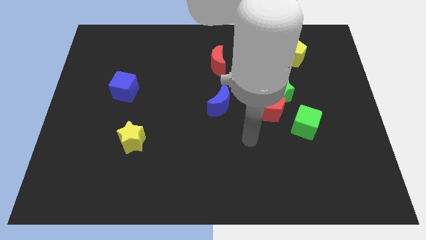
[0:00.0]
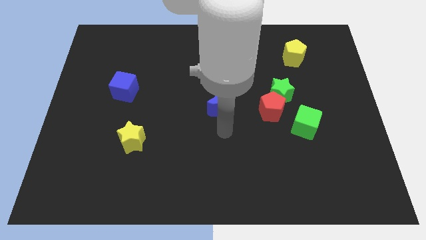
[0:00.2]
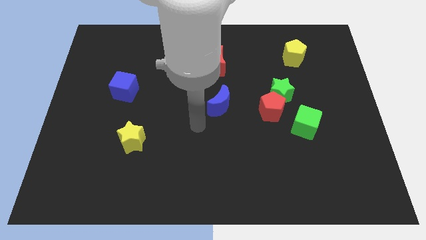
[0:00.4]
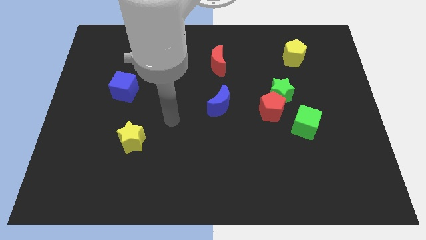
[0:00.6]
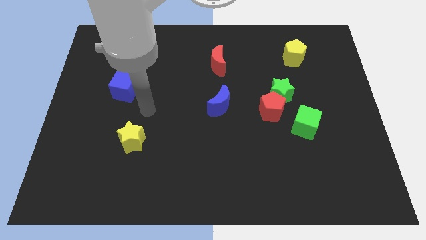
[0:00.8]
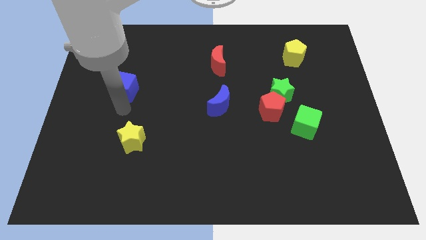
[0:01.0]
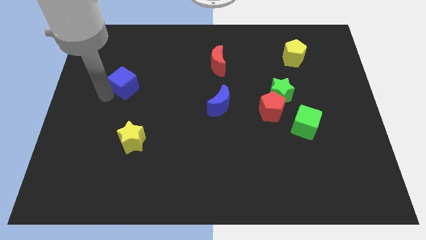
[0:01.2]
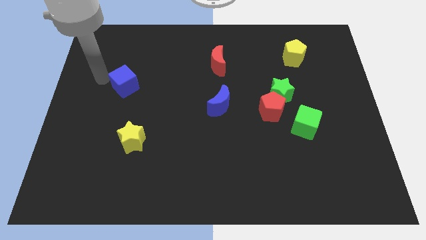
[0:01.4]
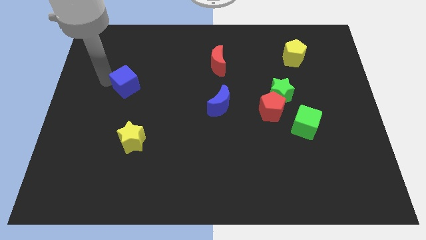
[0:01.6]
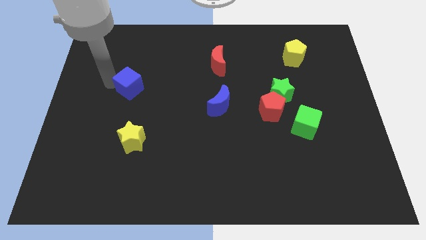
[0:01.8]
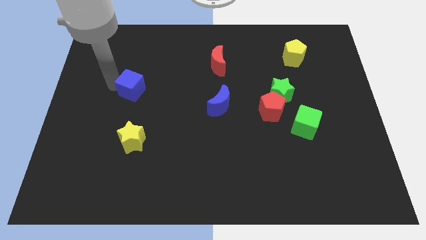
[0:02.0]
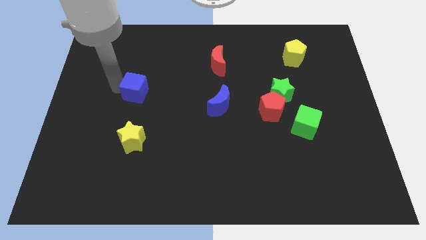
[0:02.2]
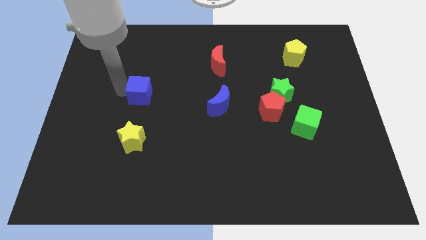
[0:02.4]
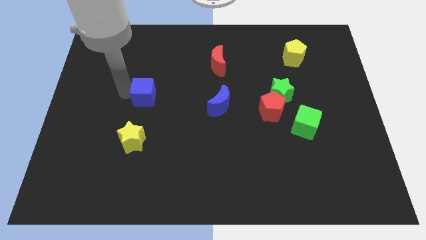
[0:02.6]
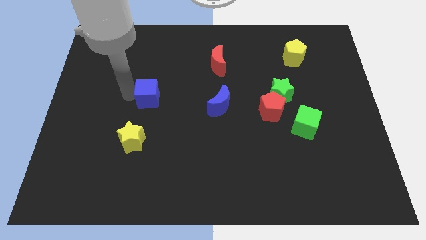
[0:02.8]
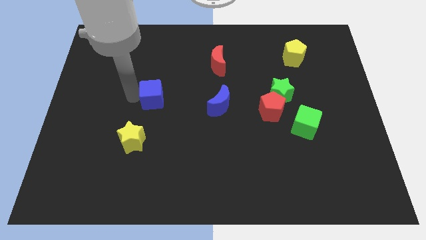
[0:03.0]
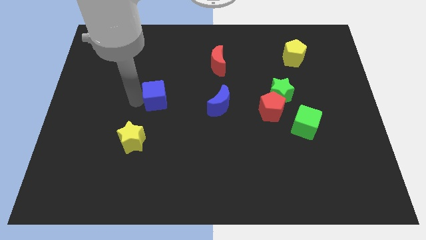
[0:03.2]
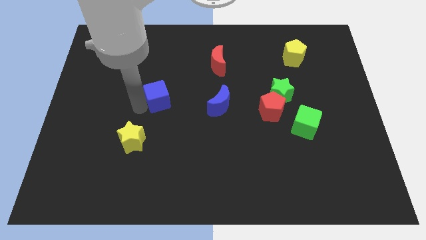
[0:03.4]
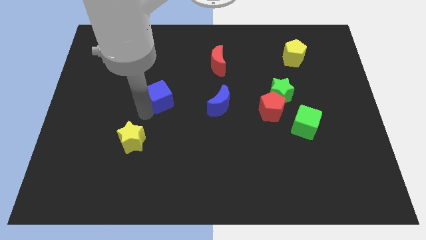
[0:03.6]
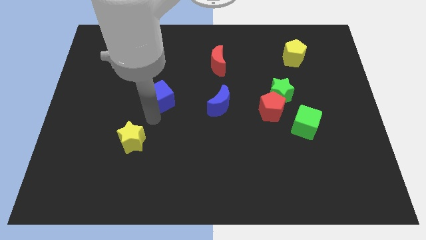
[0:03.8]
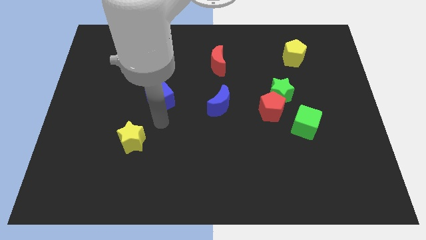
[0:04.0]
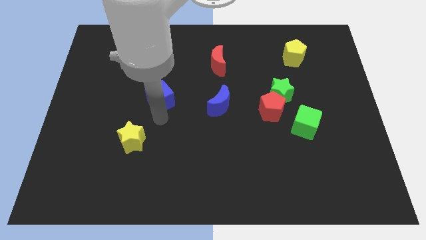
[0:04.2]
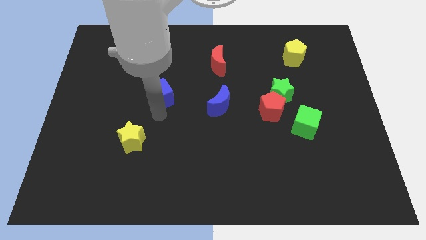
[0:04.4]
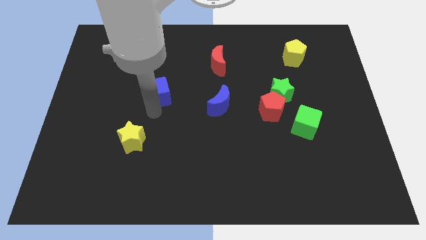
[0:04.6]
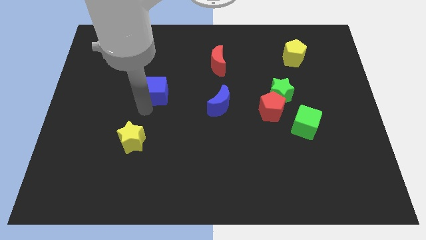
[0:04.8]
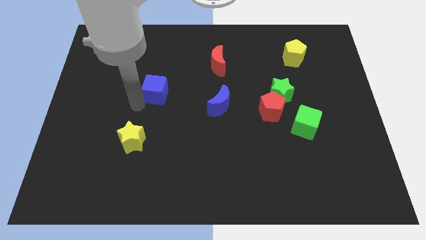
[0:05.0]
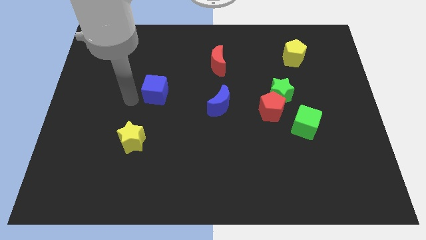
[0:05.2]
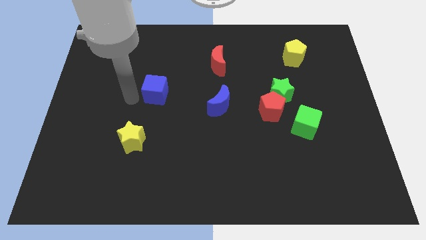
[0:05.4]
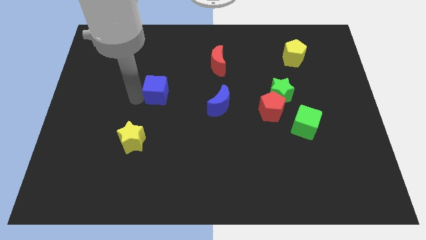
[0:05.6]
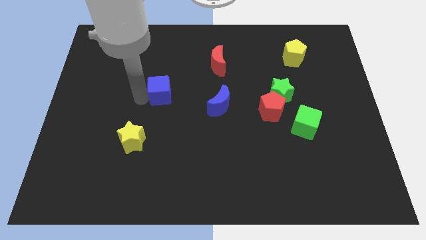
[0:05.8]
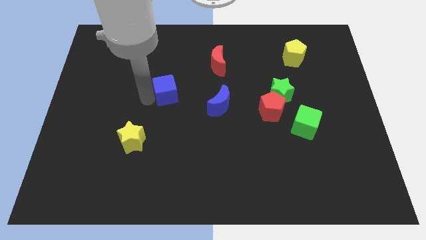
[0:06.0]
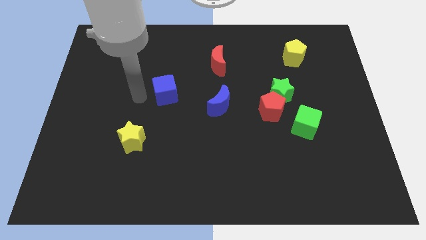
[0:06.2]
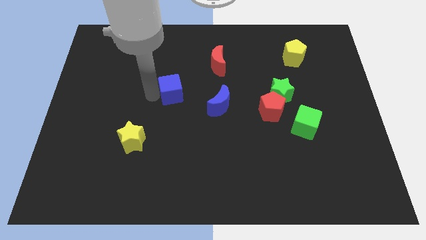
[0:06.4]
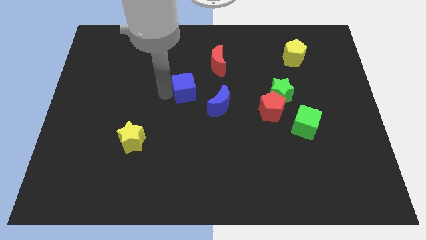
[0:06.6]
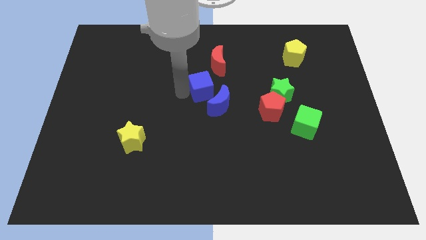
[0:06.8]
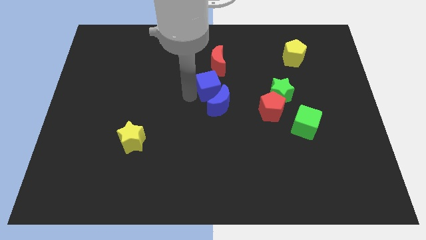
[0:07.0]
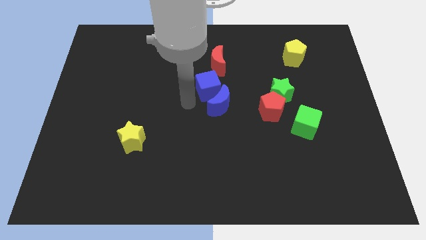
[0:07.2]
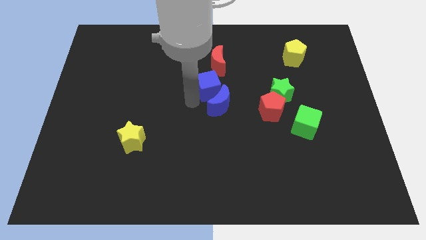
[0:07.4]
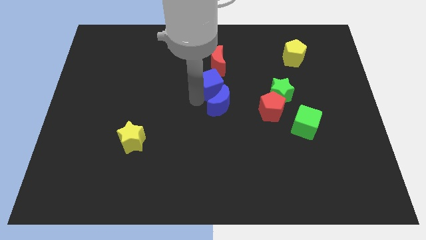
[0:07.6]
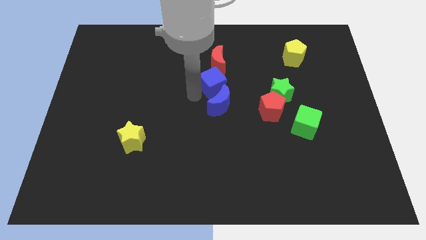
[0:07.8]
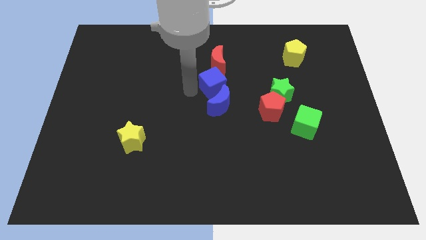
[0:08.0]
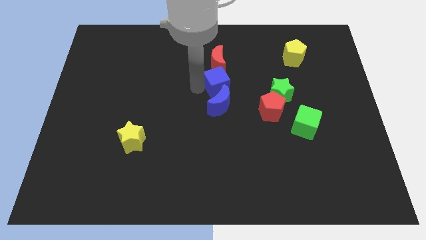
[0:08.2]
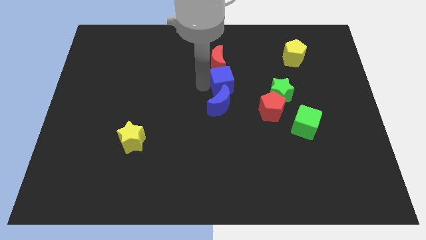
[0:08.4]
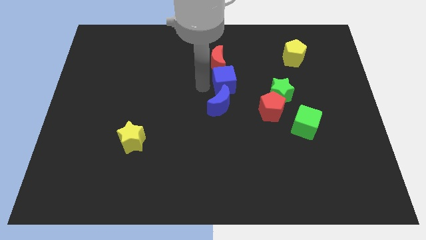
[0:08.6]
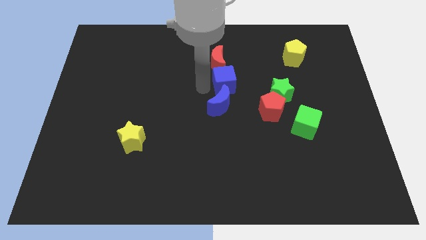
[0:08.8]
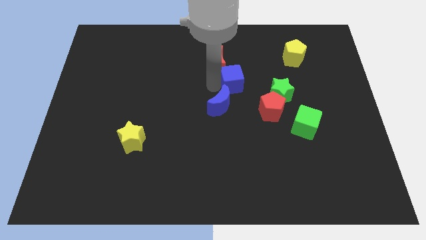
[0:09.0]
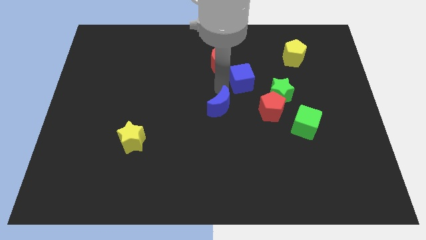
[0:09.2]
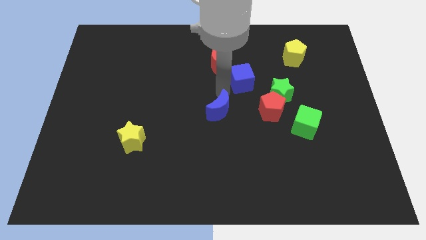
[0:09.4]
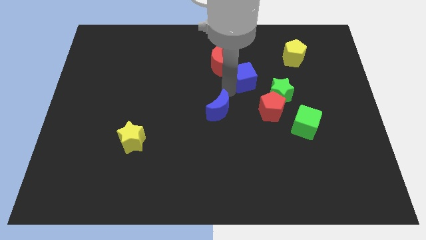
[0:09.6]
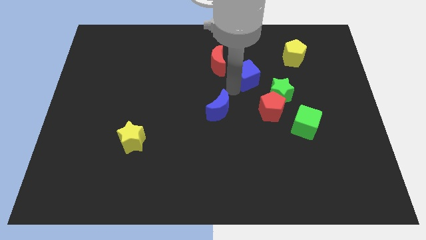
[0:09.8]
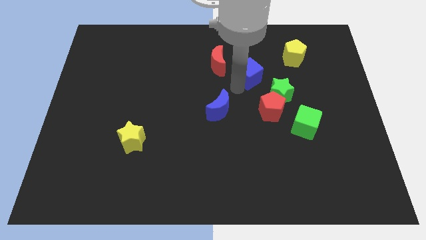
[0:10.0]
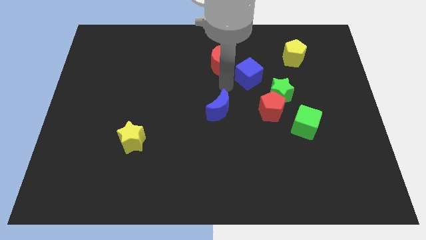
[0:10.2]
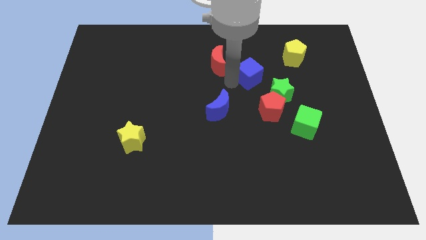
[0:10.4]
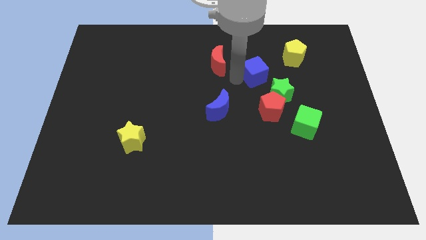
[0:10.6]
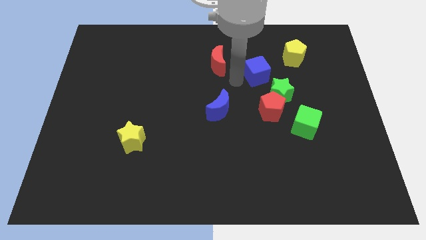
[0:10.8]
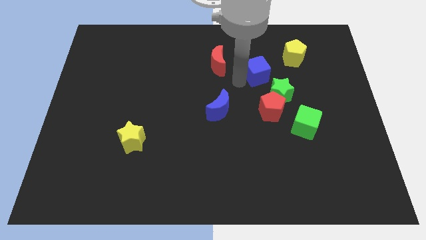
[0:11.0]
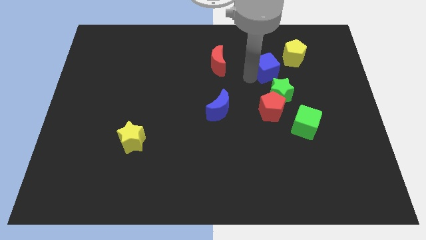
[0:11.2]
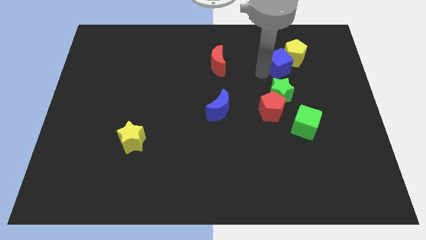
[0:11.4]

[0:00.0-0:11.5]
move the blue cube towards the yellow pentagon

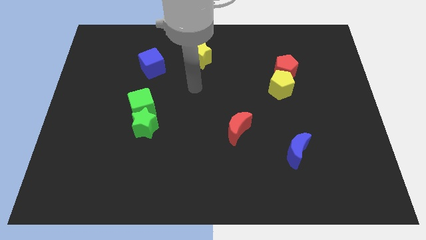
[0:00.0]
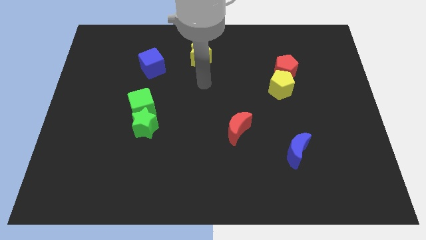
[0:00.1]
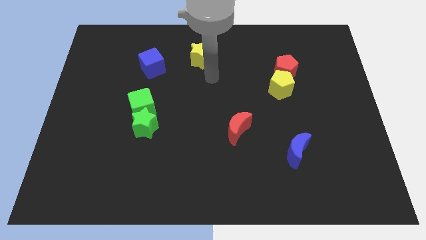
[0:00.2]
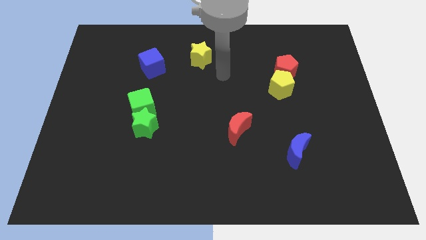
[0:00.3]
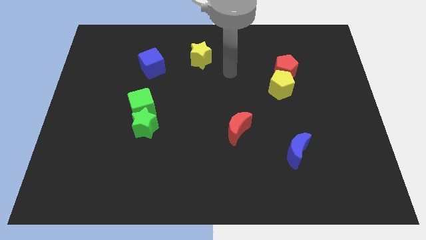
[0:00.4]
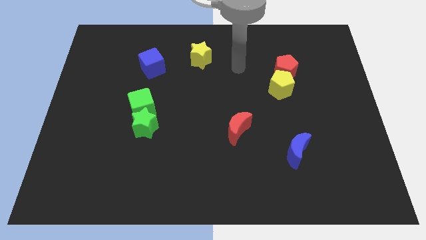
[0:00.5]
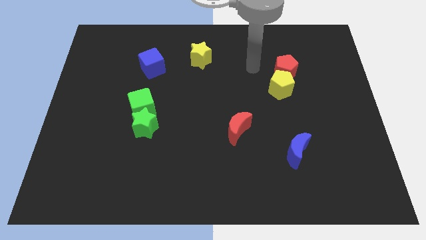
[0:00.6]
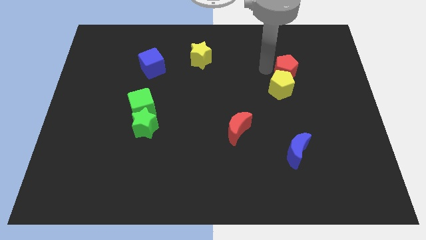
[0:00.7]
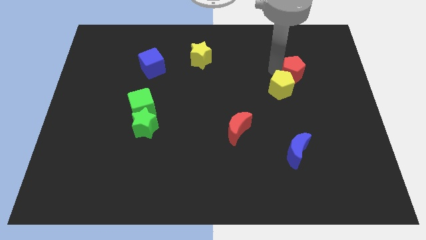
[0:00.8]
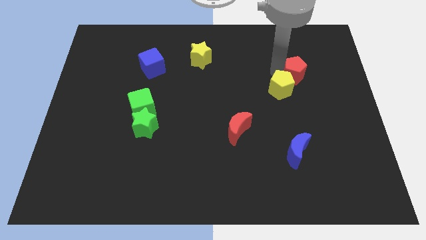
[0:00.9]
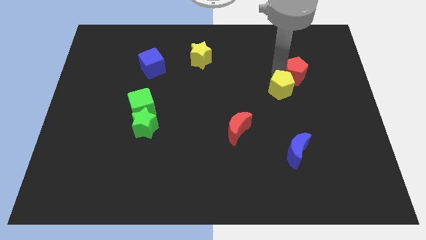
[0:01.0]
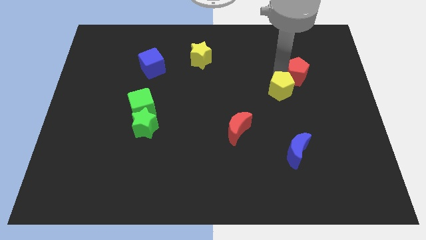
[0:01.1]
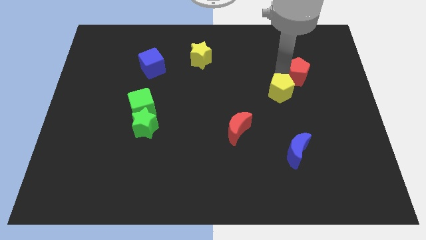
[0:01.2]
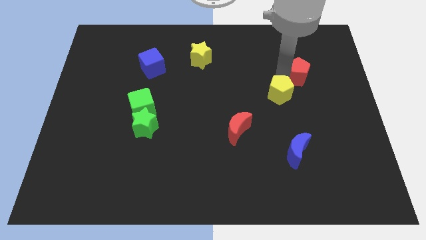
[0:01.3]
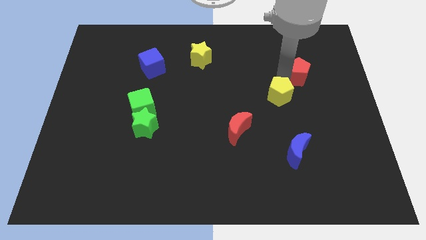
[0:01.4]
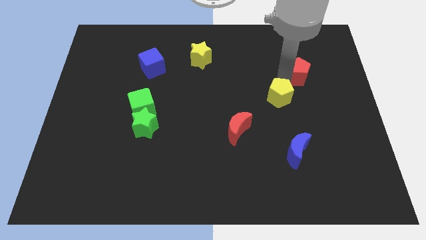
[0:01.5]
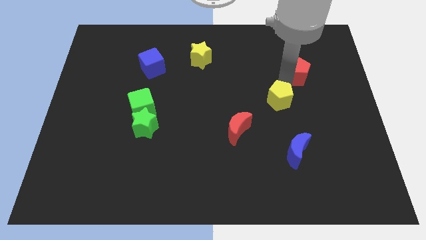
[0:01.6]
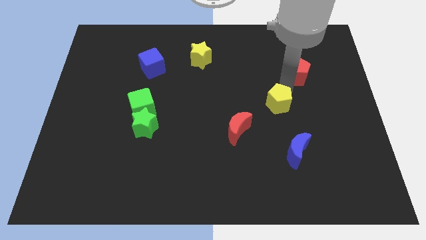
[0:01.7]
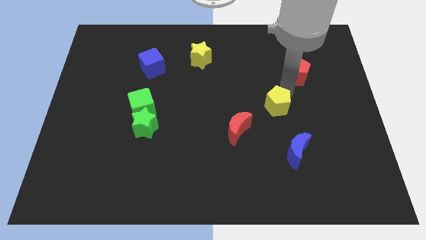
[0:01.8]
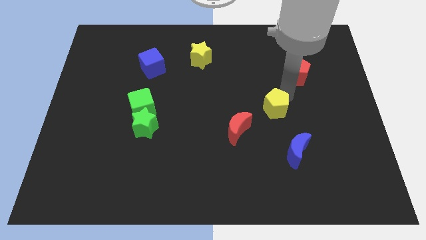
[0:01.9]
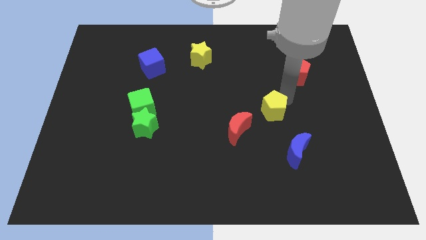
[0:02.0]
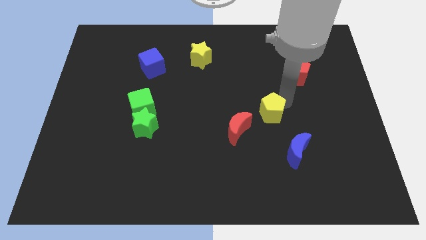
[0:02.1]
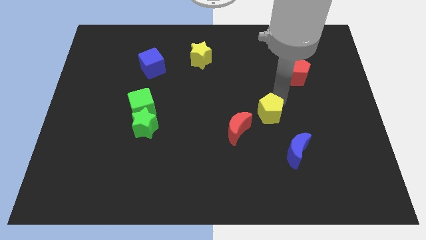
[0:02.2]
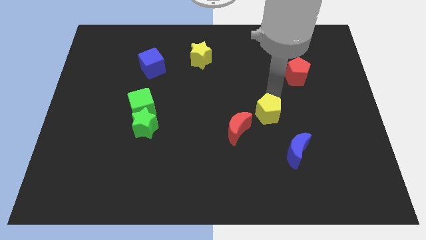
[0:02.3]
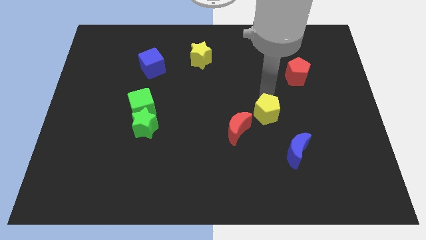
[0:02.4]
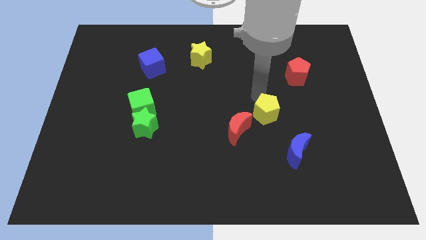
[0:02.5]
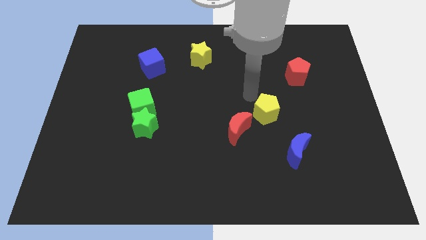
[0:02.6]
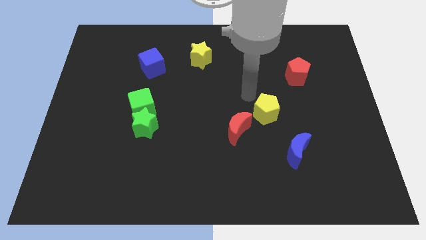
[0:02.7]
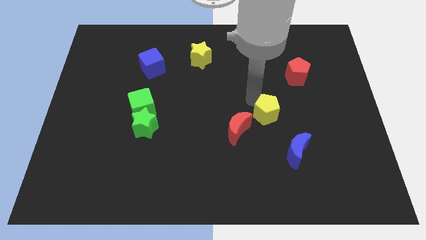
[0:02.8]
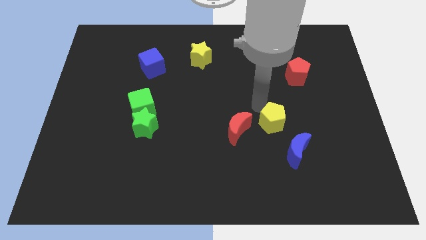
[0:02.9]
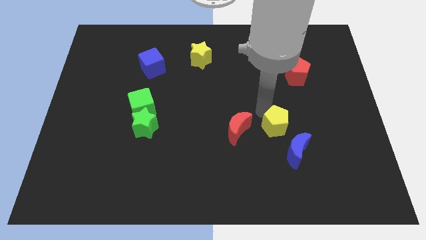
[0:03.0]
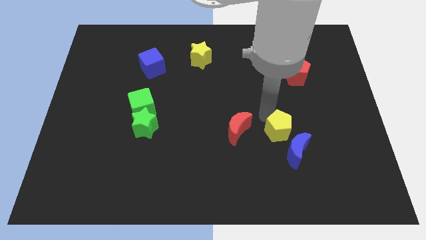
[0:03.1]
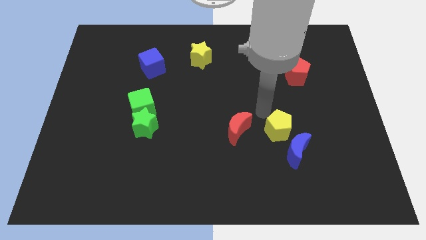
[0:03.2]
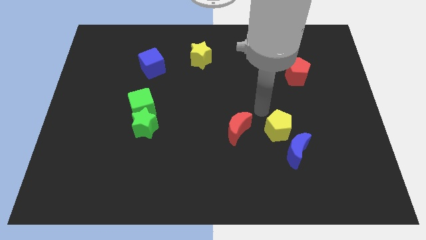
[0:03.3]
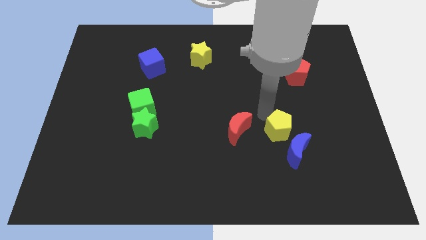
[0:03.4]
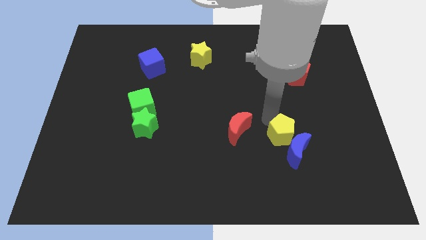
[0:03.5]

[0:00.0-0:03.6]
slide the yellow pentagon towards the blue moon
